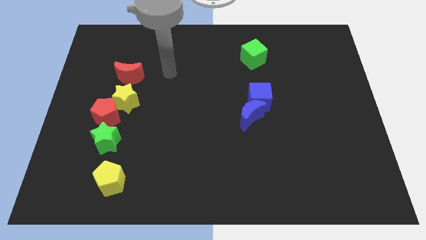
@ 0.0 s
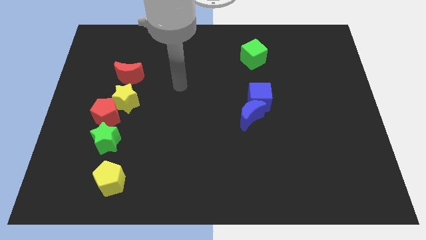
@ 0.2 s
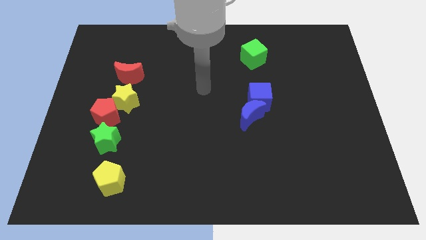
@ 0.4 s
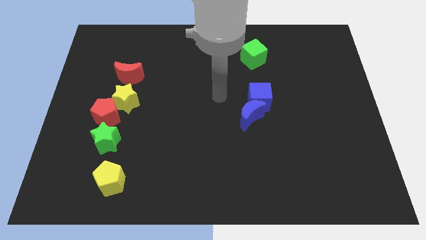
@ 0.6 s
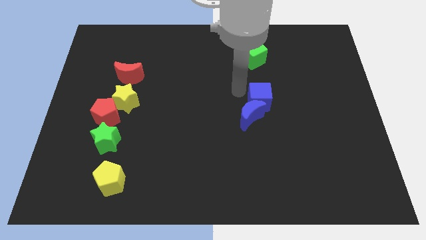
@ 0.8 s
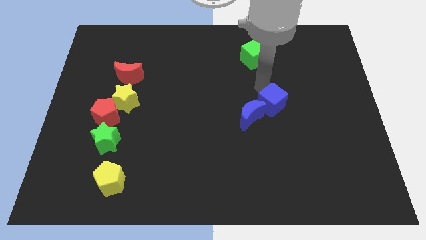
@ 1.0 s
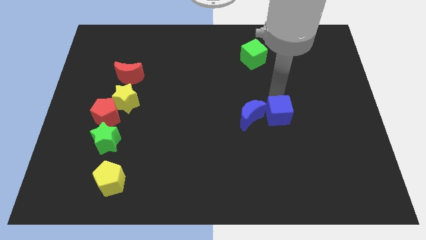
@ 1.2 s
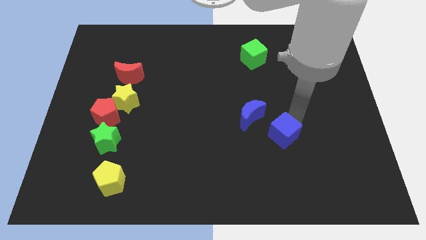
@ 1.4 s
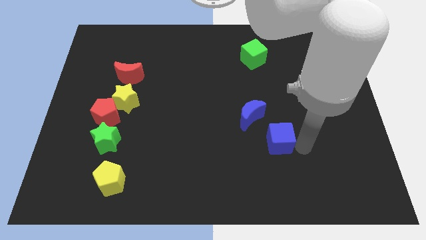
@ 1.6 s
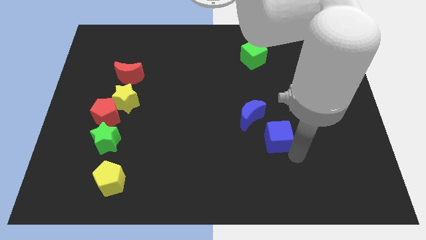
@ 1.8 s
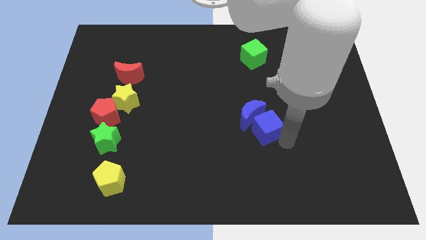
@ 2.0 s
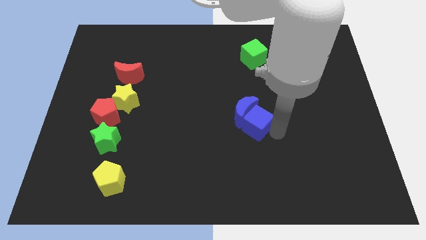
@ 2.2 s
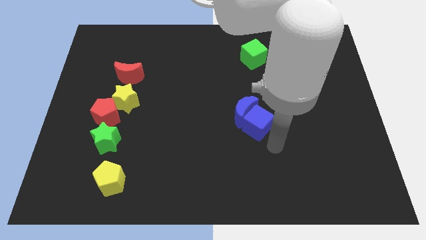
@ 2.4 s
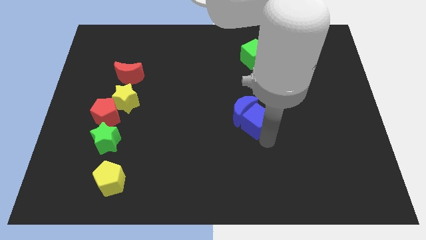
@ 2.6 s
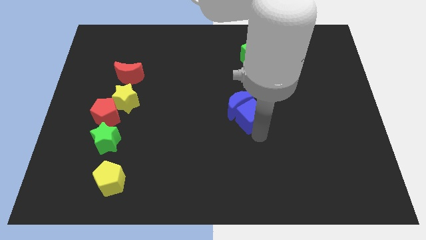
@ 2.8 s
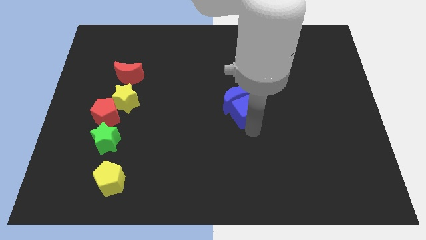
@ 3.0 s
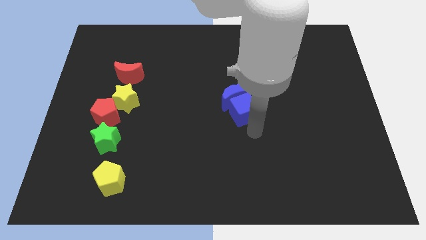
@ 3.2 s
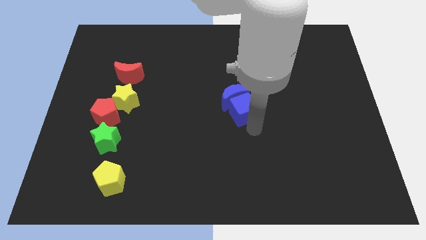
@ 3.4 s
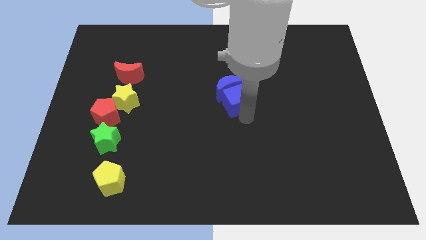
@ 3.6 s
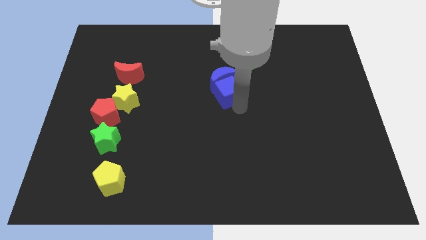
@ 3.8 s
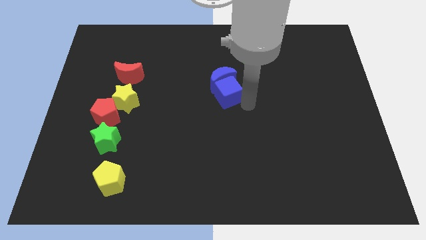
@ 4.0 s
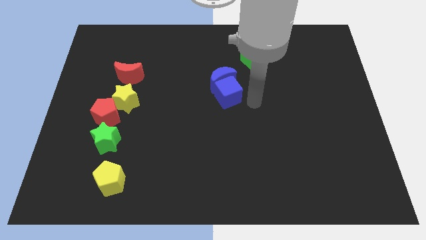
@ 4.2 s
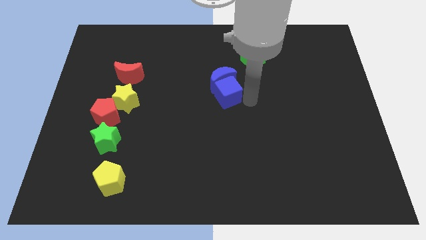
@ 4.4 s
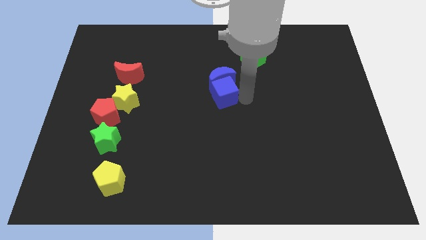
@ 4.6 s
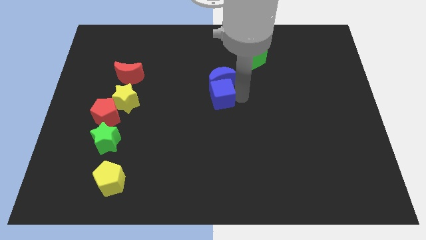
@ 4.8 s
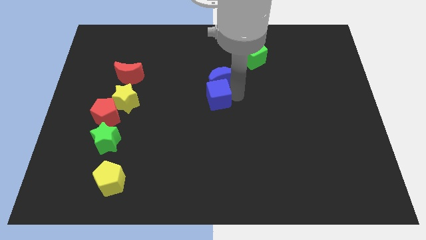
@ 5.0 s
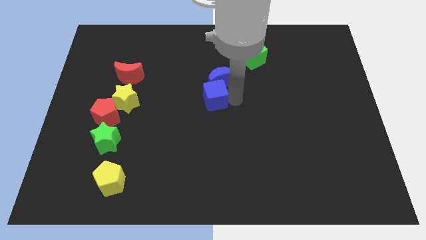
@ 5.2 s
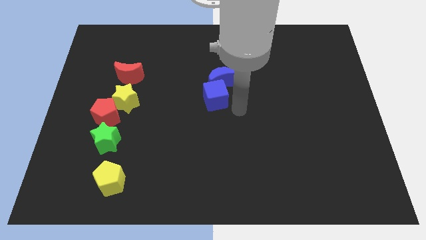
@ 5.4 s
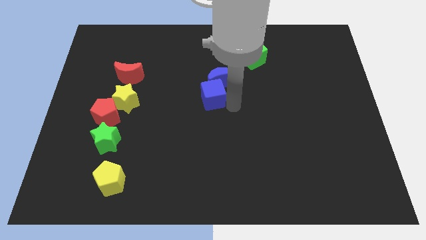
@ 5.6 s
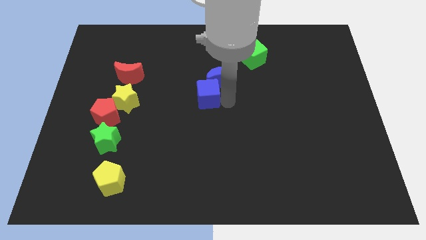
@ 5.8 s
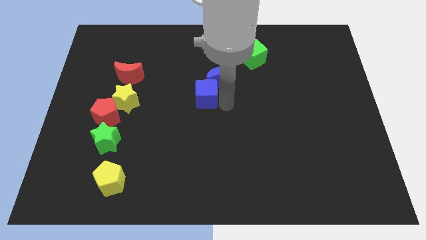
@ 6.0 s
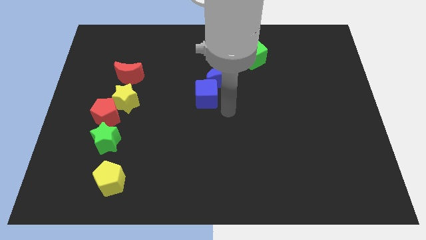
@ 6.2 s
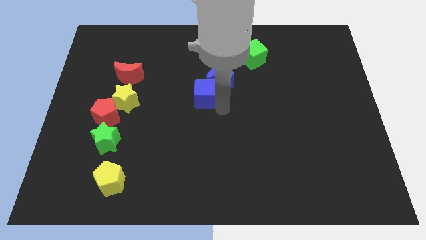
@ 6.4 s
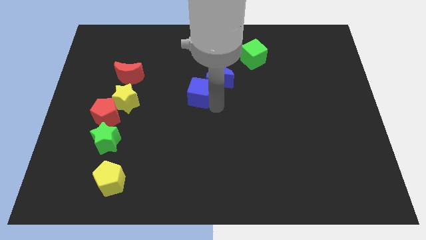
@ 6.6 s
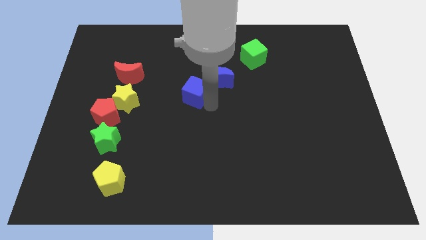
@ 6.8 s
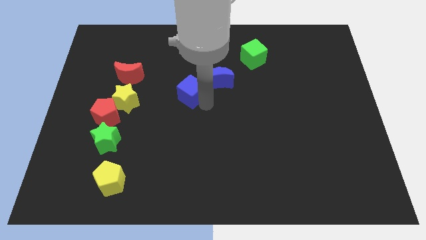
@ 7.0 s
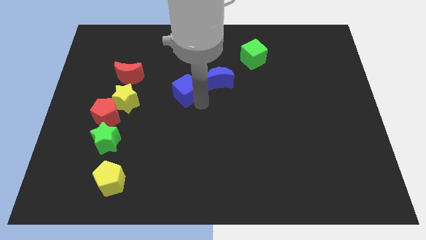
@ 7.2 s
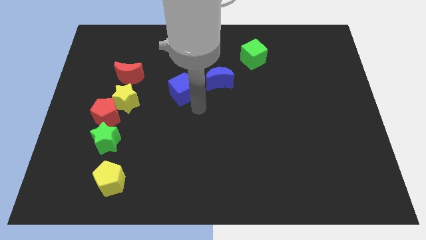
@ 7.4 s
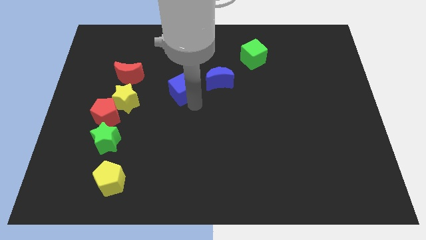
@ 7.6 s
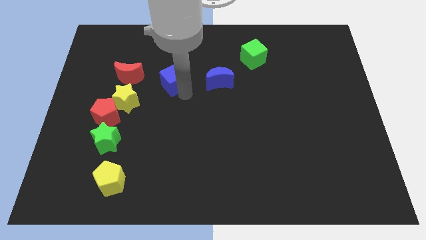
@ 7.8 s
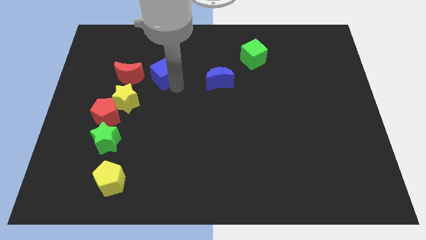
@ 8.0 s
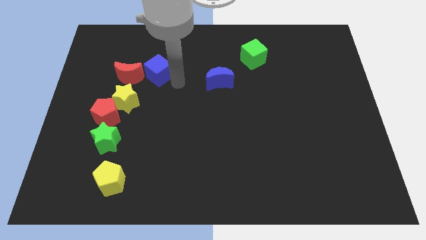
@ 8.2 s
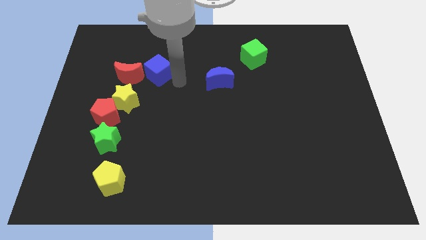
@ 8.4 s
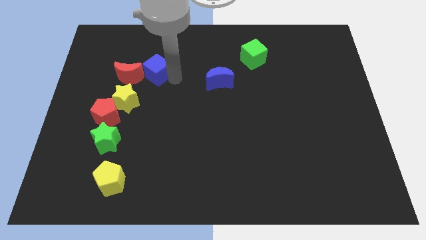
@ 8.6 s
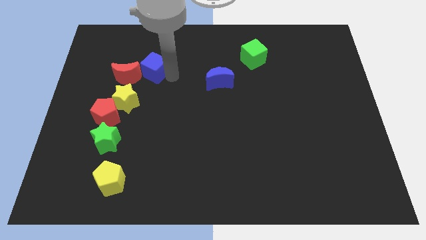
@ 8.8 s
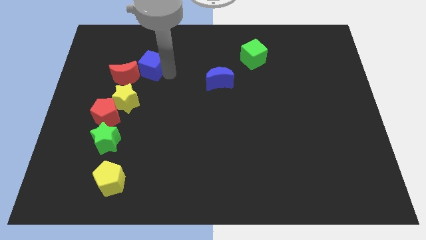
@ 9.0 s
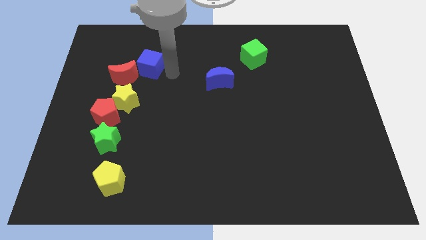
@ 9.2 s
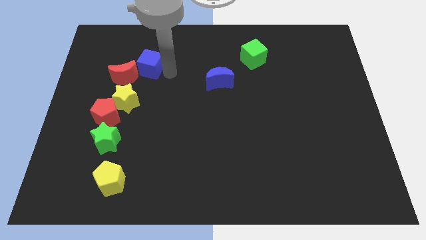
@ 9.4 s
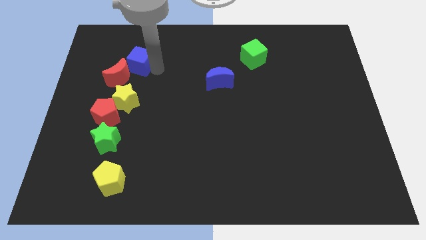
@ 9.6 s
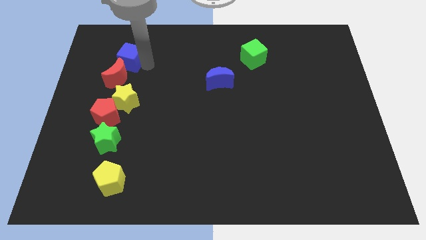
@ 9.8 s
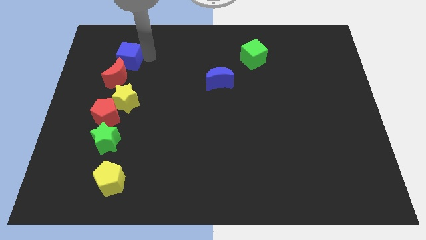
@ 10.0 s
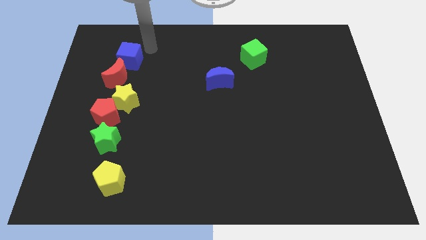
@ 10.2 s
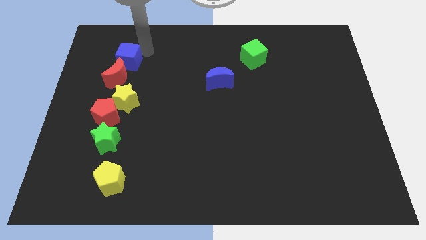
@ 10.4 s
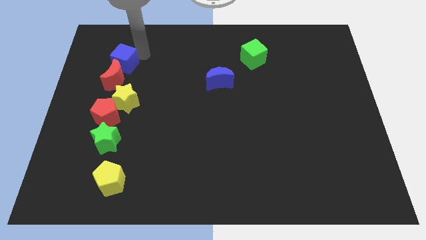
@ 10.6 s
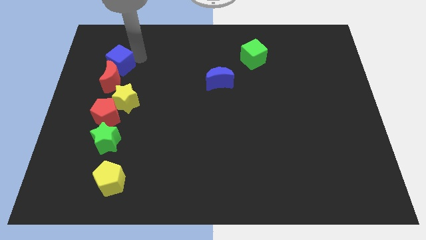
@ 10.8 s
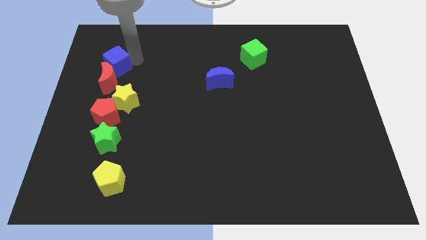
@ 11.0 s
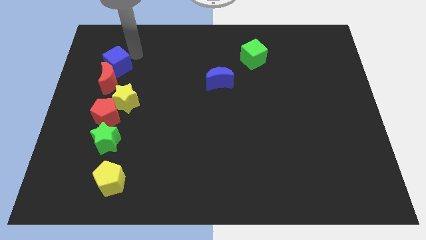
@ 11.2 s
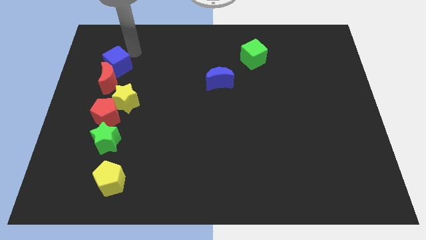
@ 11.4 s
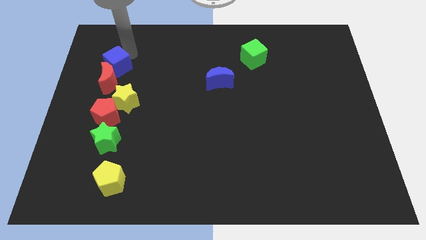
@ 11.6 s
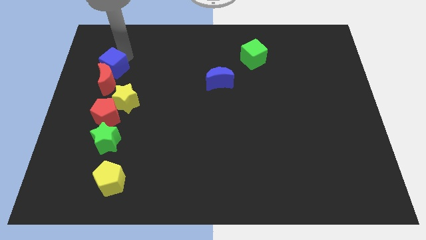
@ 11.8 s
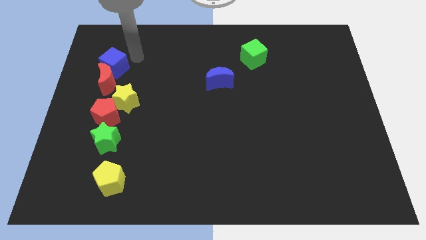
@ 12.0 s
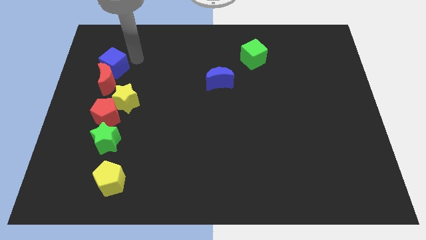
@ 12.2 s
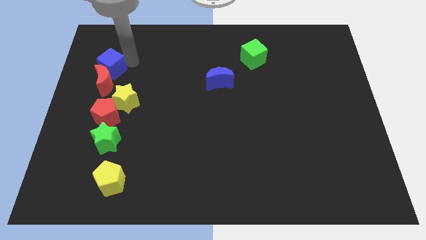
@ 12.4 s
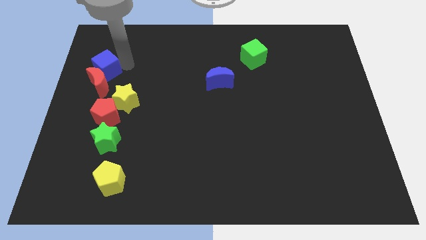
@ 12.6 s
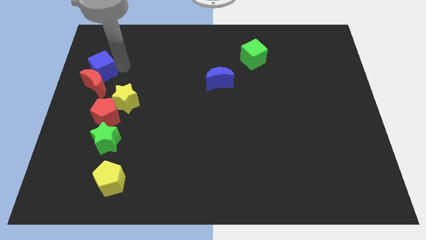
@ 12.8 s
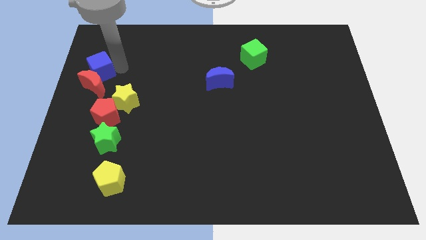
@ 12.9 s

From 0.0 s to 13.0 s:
put the blue cube to the center left

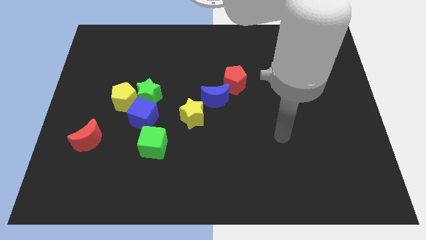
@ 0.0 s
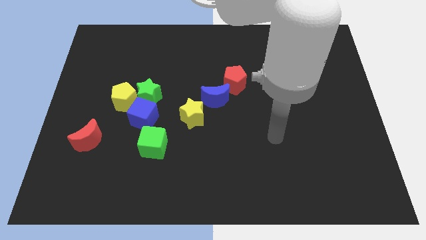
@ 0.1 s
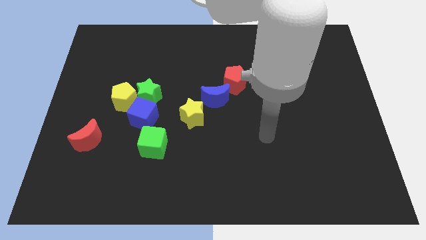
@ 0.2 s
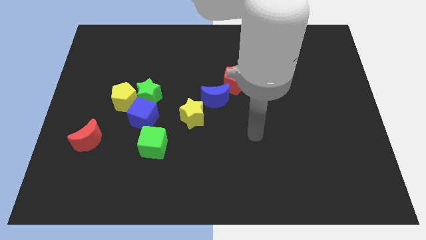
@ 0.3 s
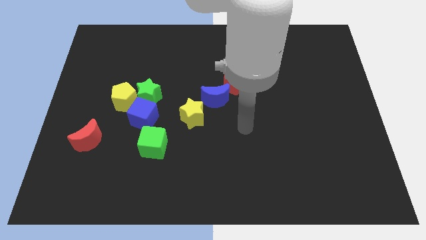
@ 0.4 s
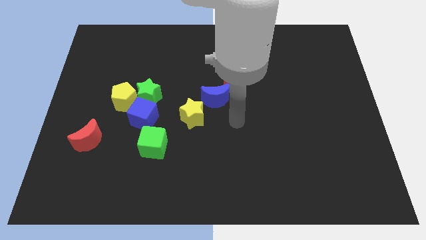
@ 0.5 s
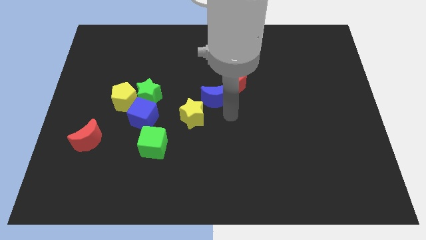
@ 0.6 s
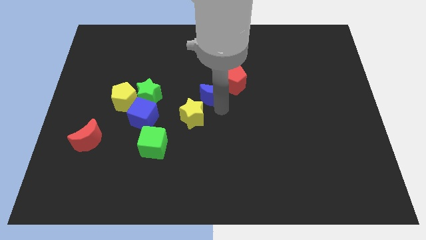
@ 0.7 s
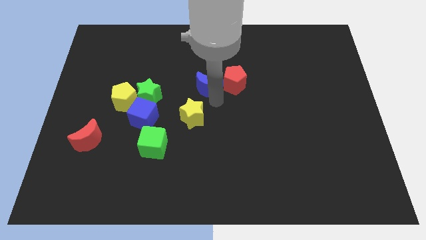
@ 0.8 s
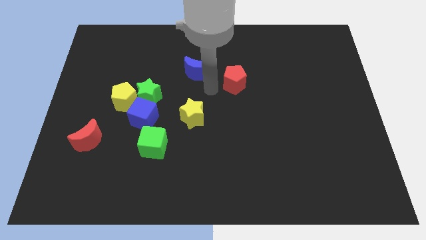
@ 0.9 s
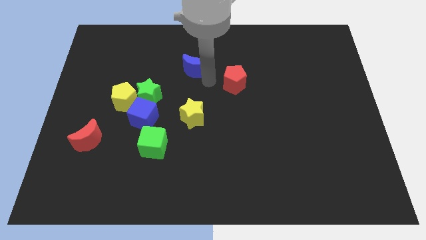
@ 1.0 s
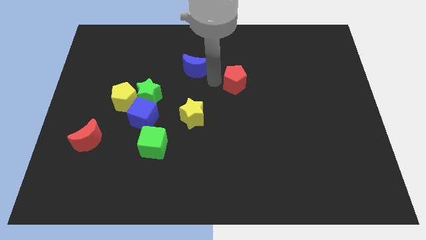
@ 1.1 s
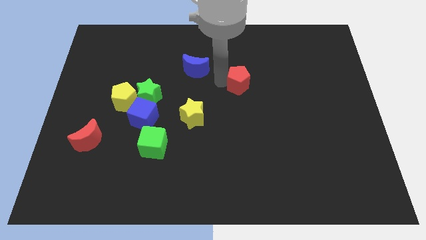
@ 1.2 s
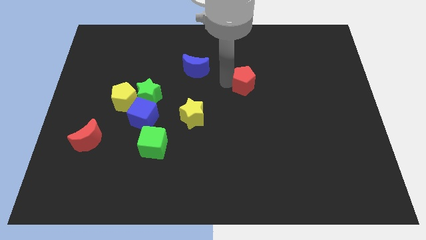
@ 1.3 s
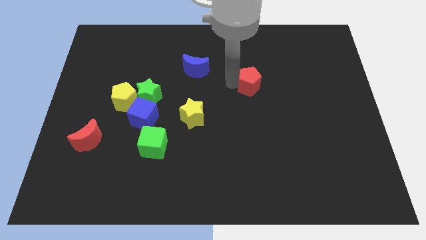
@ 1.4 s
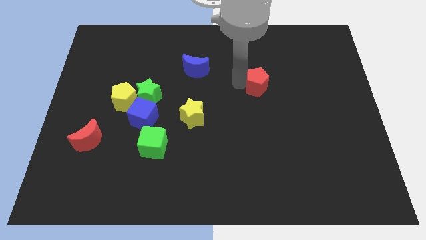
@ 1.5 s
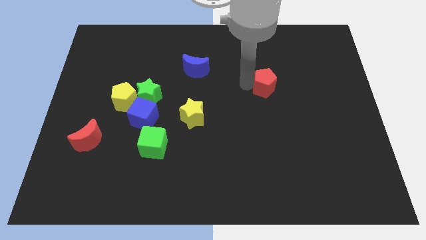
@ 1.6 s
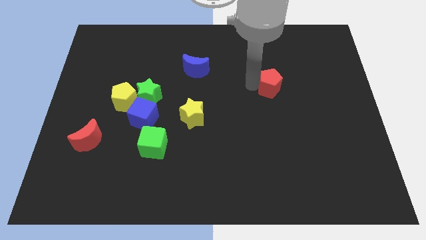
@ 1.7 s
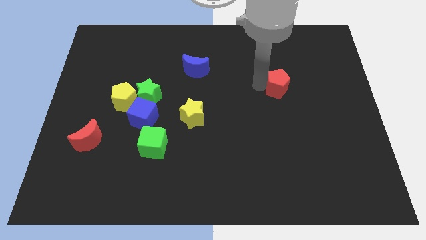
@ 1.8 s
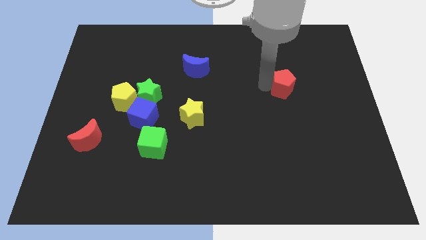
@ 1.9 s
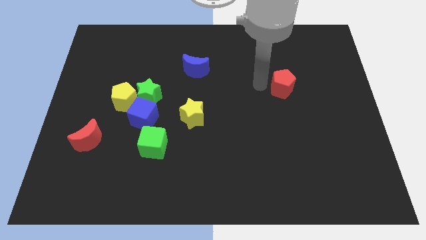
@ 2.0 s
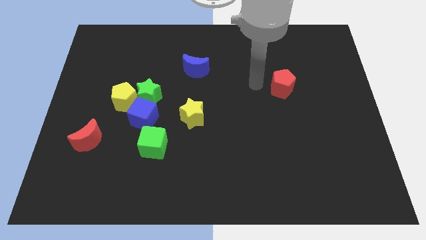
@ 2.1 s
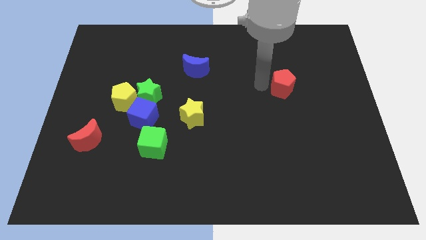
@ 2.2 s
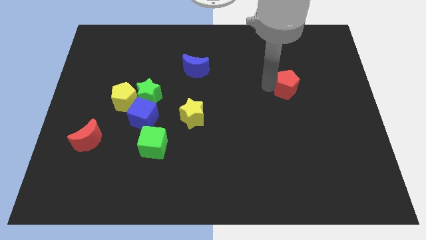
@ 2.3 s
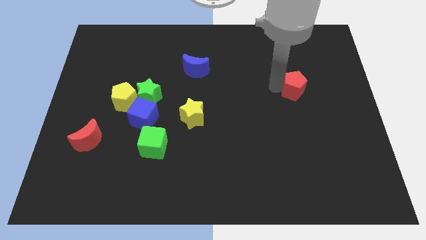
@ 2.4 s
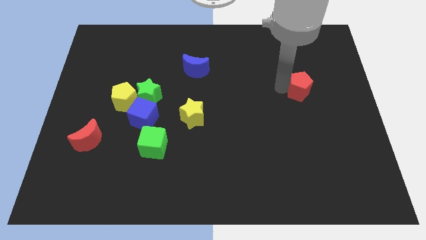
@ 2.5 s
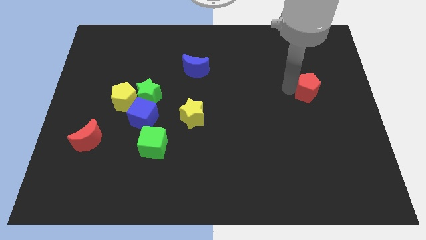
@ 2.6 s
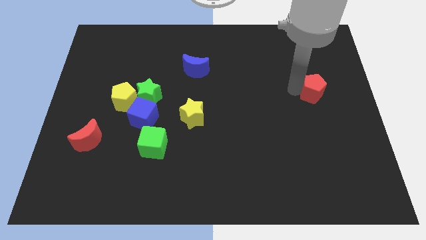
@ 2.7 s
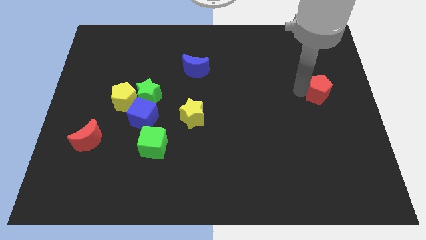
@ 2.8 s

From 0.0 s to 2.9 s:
slide the red pentagon to the center right
